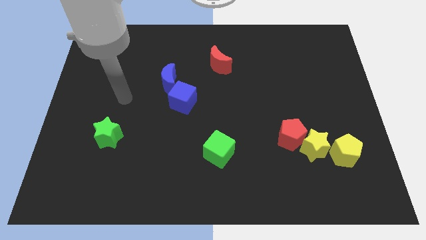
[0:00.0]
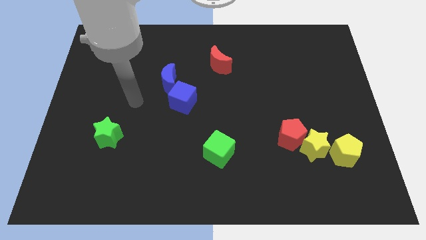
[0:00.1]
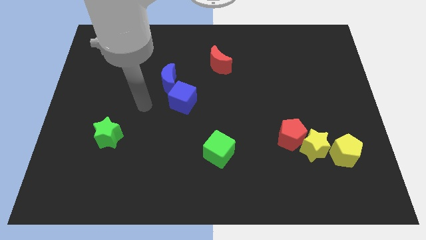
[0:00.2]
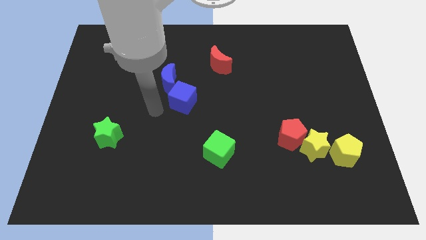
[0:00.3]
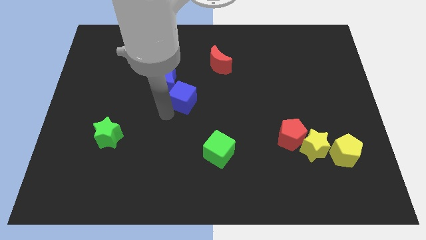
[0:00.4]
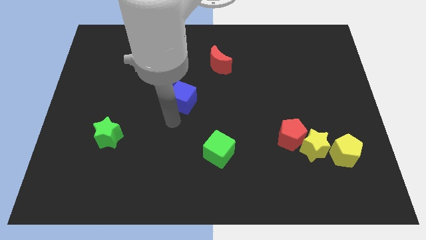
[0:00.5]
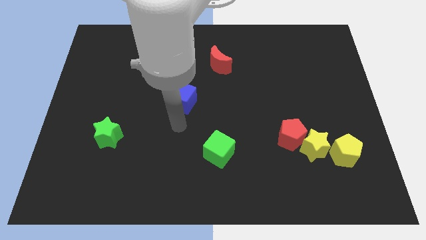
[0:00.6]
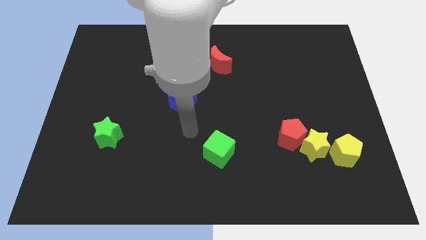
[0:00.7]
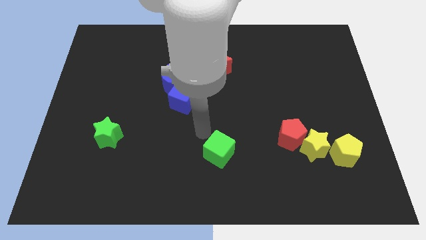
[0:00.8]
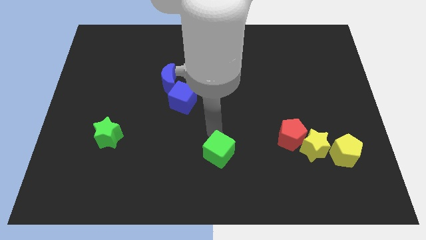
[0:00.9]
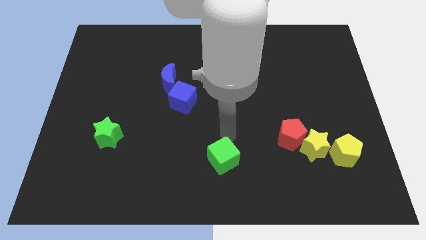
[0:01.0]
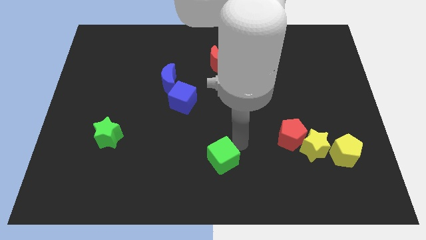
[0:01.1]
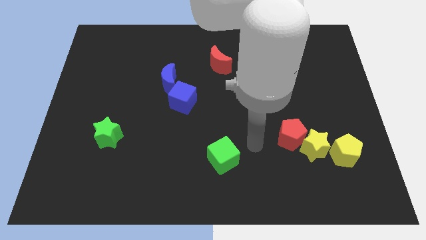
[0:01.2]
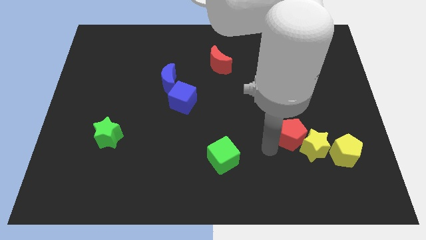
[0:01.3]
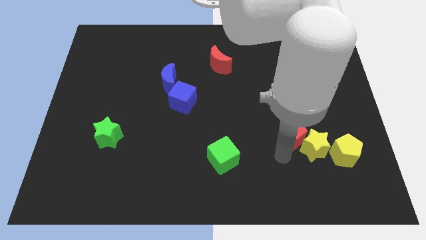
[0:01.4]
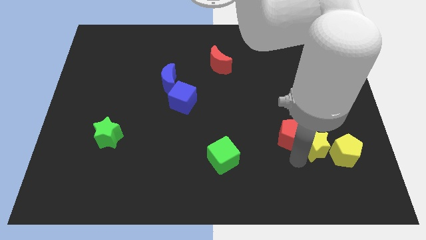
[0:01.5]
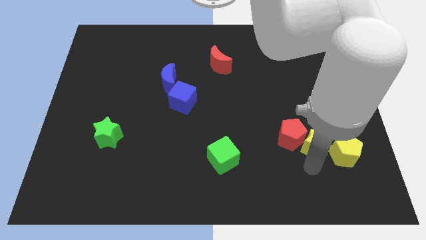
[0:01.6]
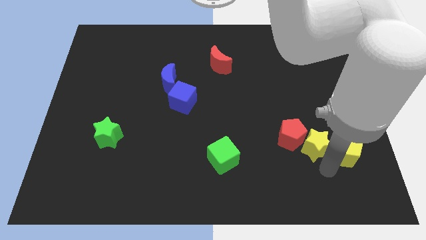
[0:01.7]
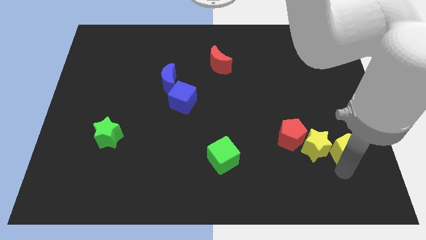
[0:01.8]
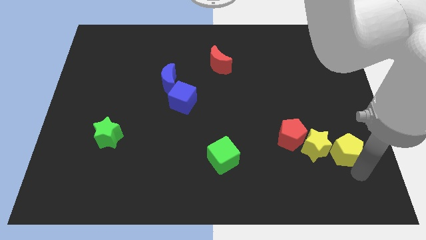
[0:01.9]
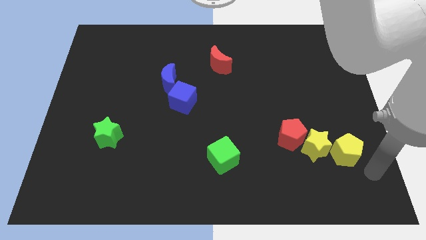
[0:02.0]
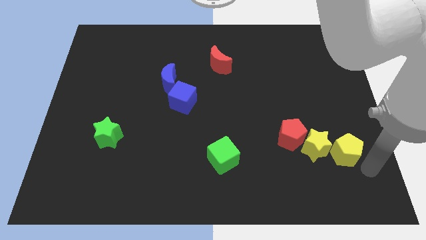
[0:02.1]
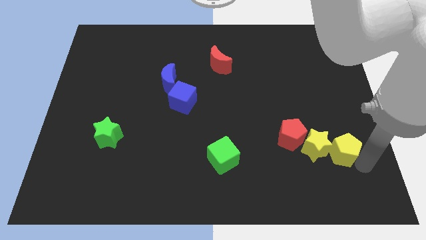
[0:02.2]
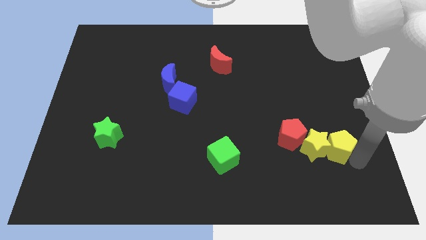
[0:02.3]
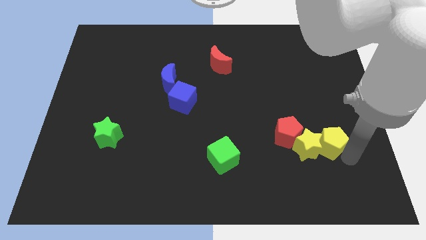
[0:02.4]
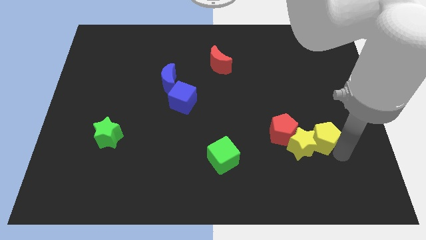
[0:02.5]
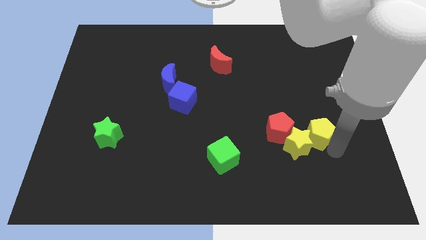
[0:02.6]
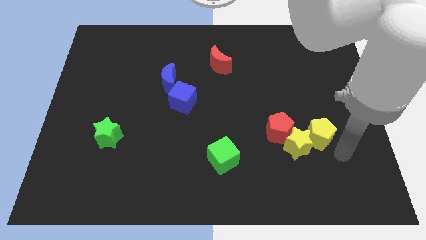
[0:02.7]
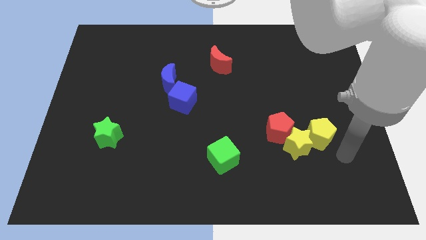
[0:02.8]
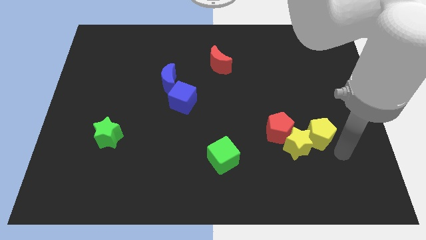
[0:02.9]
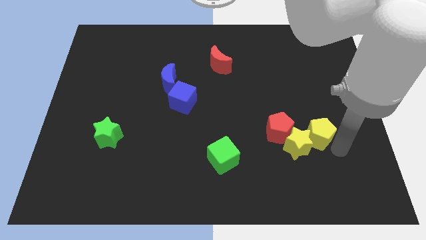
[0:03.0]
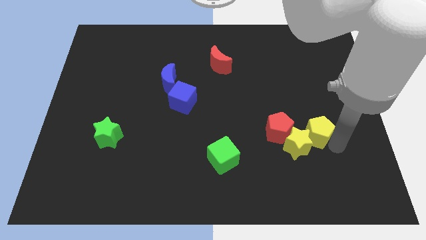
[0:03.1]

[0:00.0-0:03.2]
slightly move the yellow pentagon up and left

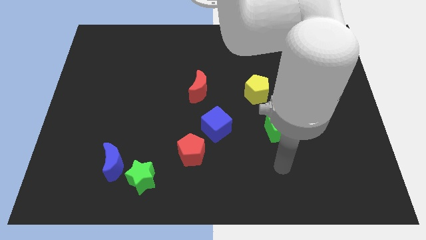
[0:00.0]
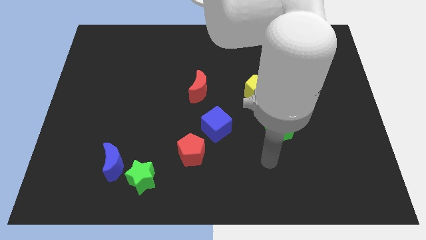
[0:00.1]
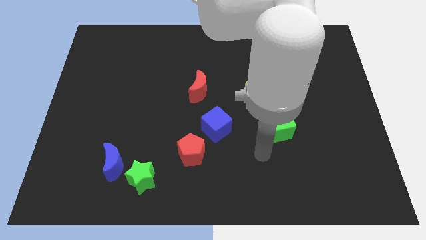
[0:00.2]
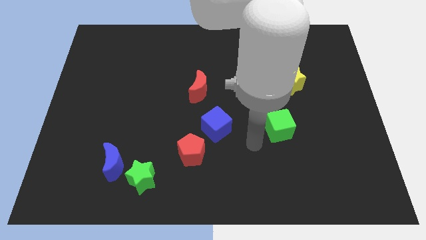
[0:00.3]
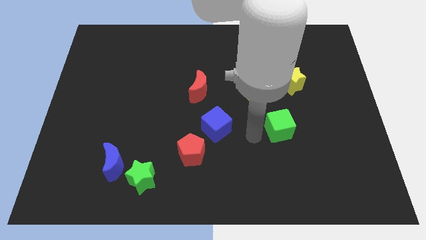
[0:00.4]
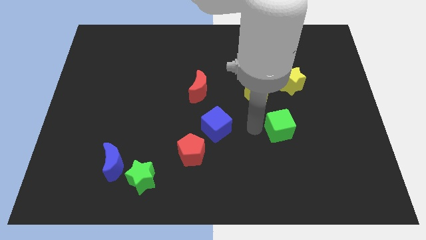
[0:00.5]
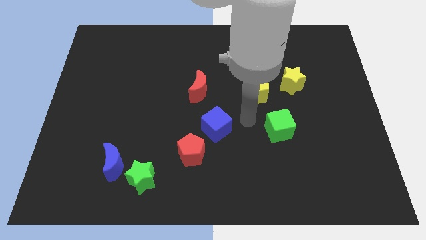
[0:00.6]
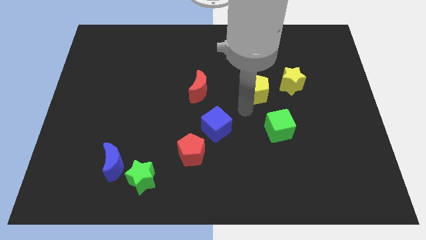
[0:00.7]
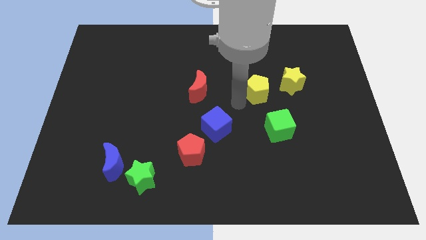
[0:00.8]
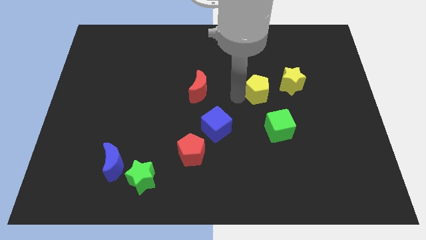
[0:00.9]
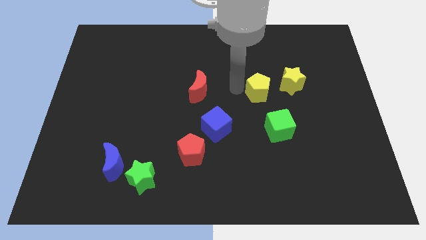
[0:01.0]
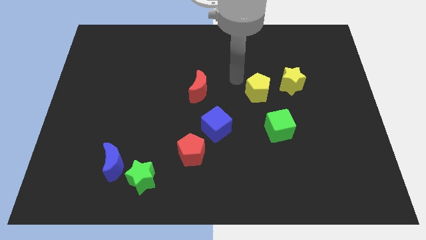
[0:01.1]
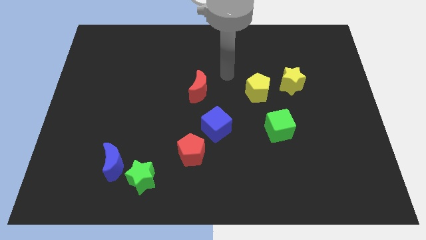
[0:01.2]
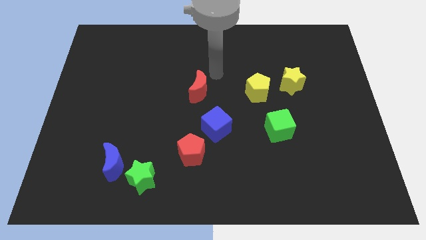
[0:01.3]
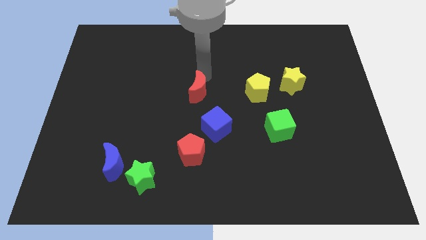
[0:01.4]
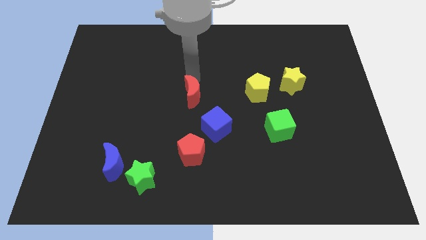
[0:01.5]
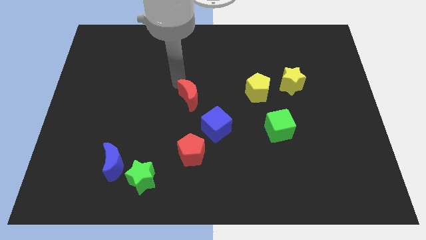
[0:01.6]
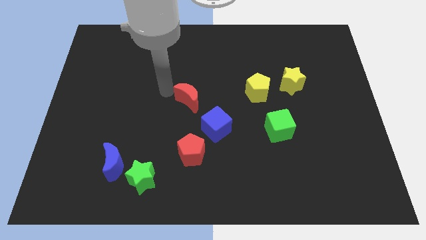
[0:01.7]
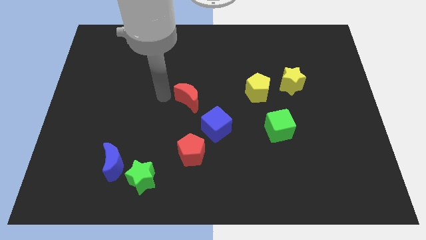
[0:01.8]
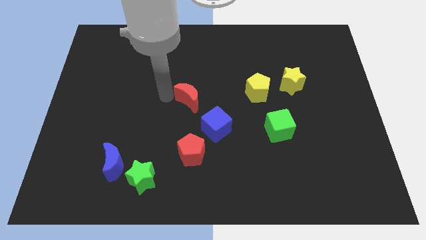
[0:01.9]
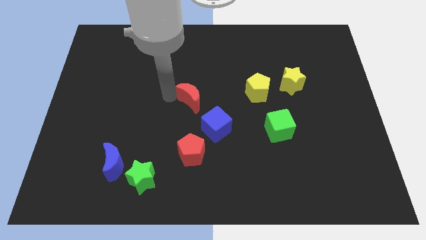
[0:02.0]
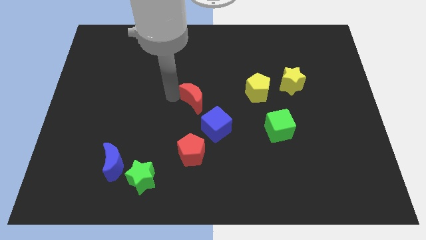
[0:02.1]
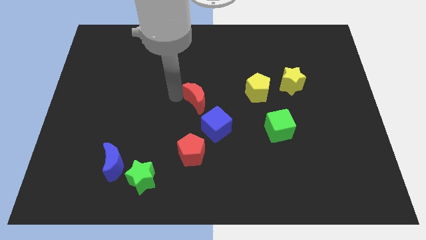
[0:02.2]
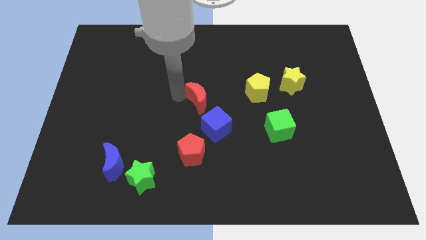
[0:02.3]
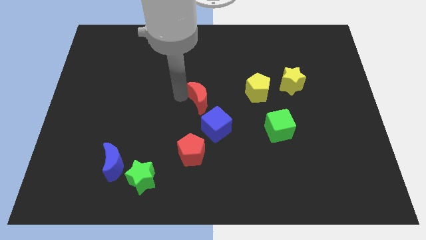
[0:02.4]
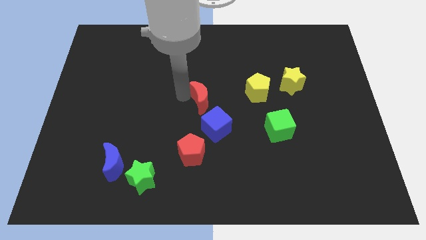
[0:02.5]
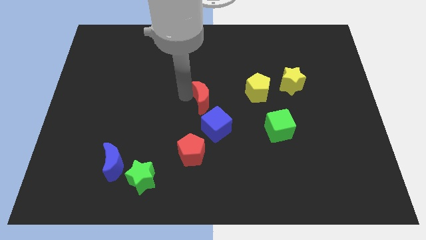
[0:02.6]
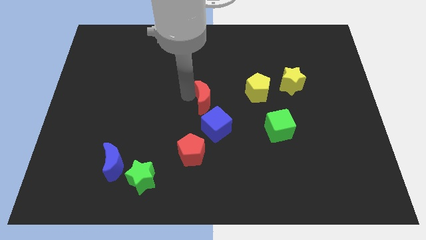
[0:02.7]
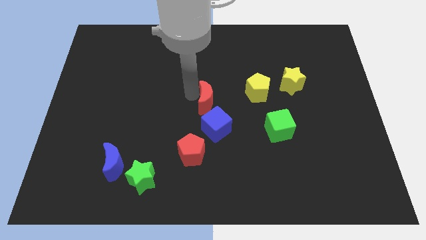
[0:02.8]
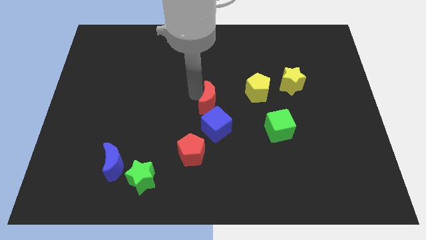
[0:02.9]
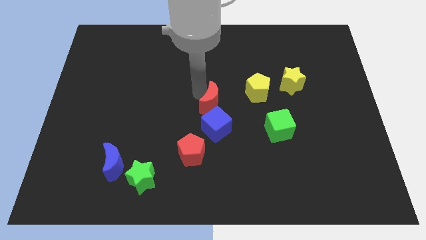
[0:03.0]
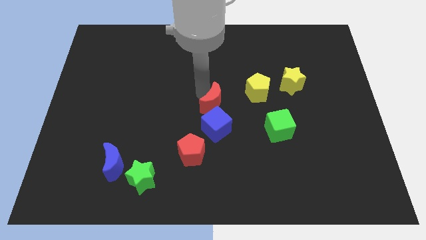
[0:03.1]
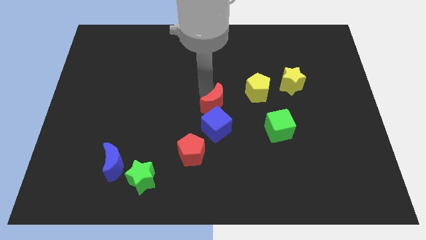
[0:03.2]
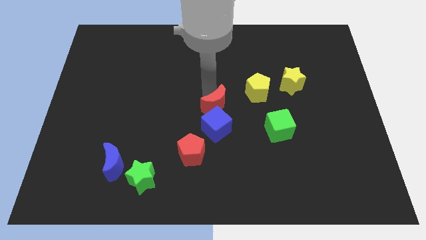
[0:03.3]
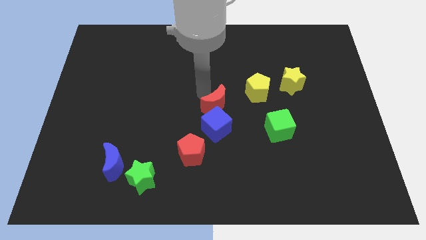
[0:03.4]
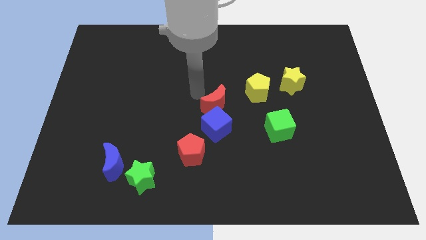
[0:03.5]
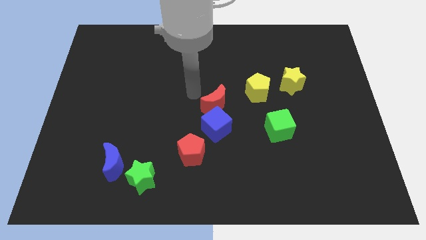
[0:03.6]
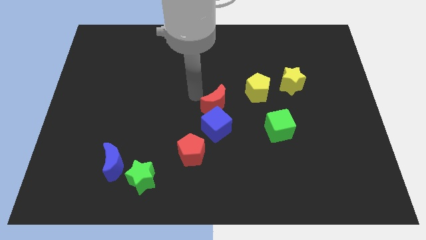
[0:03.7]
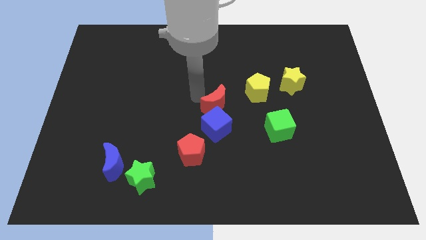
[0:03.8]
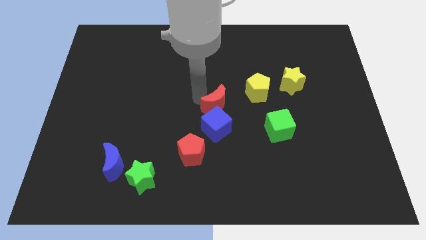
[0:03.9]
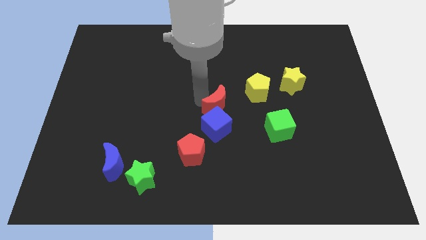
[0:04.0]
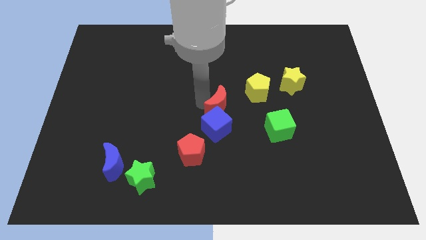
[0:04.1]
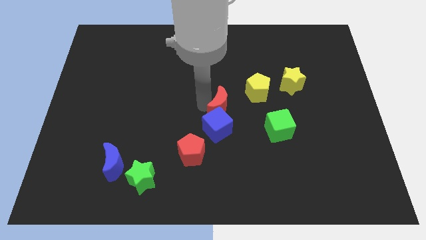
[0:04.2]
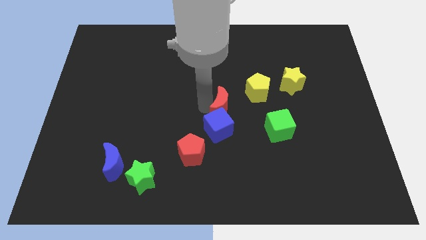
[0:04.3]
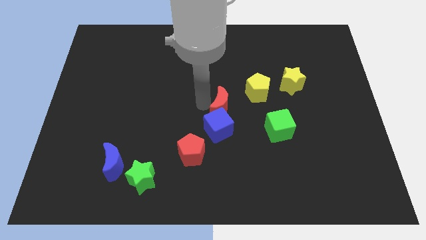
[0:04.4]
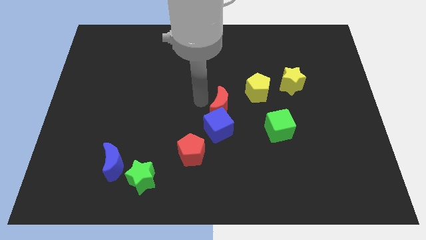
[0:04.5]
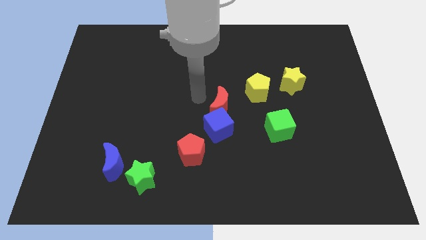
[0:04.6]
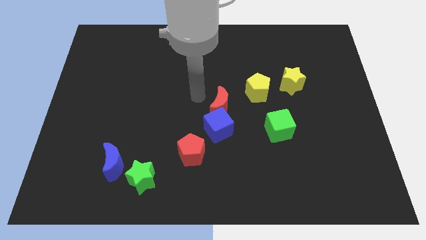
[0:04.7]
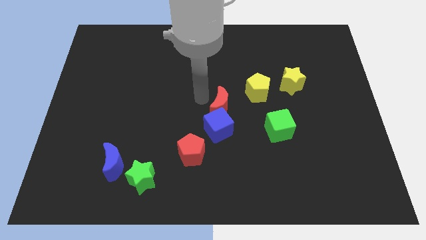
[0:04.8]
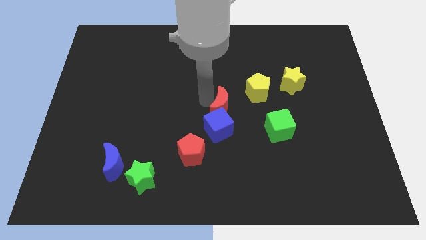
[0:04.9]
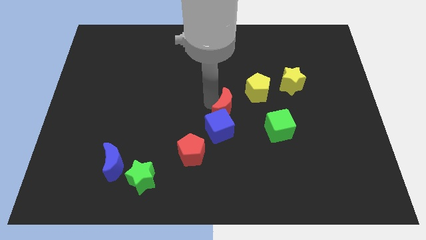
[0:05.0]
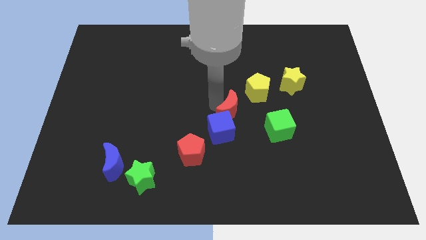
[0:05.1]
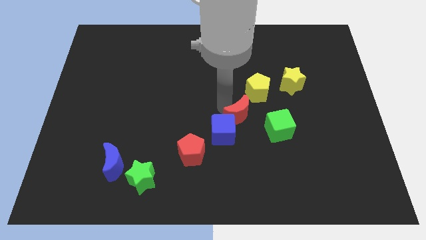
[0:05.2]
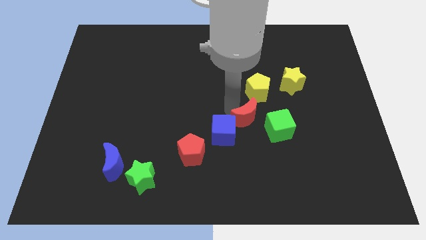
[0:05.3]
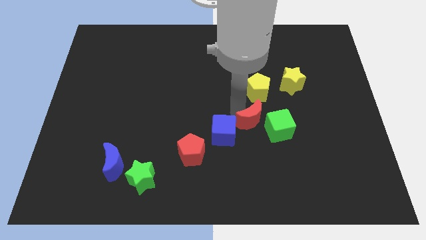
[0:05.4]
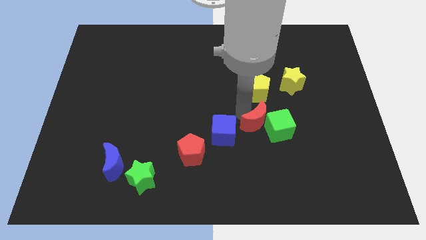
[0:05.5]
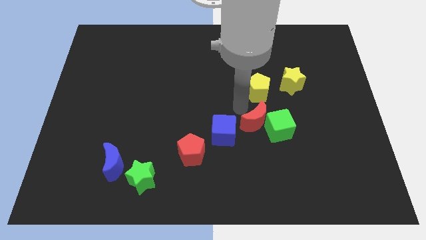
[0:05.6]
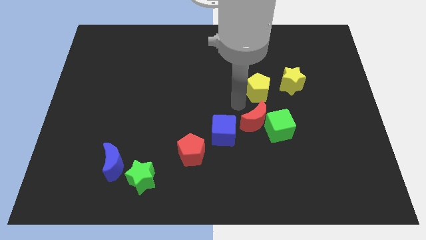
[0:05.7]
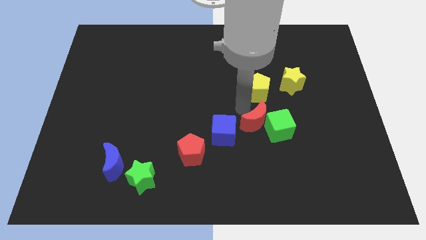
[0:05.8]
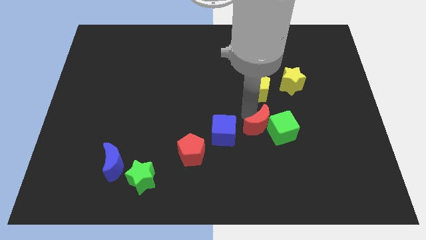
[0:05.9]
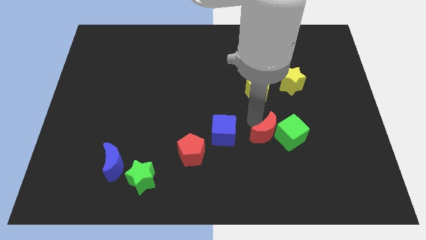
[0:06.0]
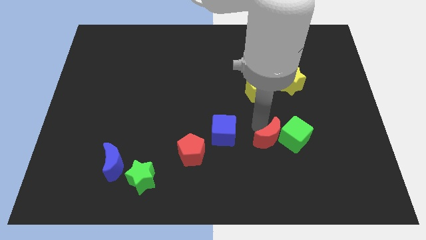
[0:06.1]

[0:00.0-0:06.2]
slide the red moon diagonally down and to the right
